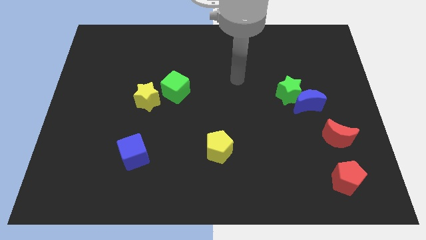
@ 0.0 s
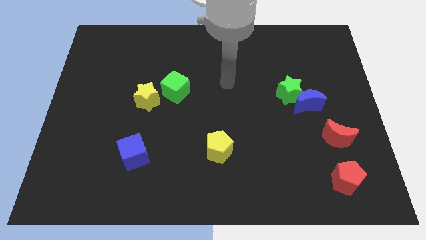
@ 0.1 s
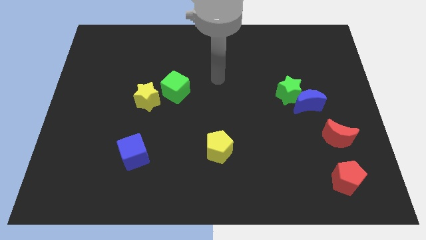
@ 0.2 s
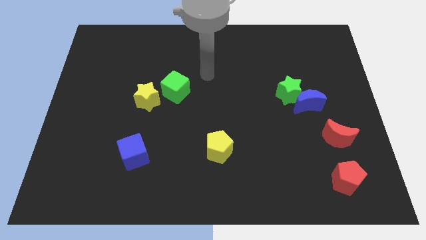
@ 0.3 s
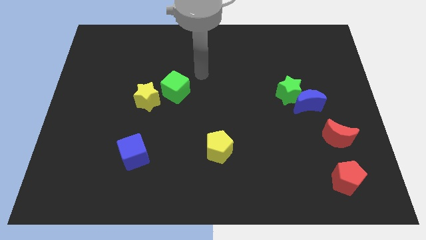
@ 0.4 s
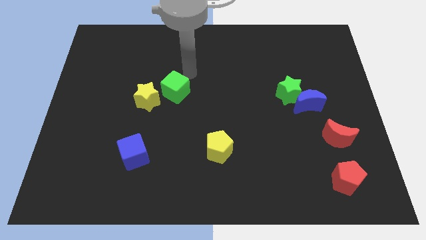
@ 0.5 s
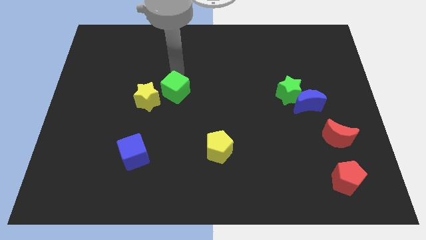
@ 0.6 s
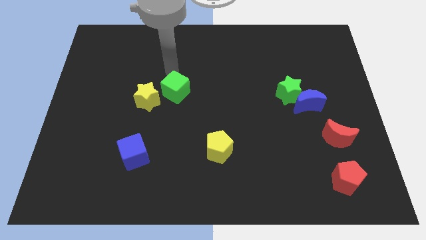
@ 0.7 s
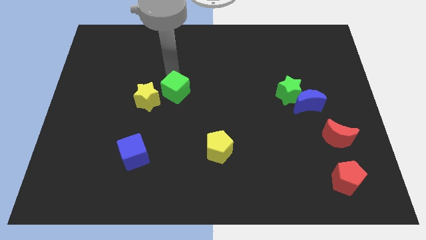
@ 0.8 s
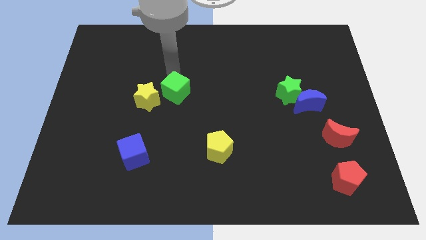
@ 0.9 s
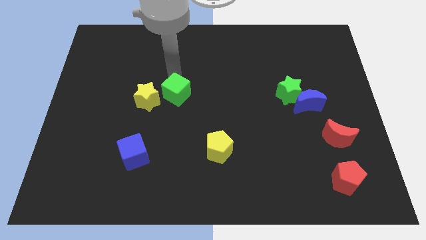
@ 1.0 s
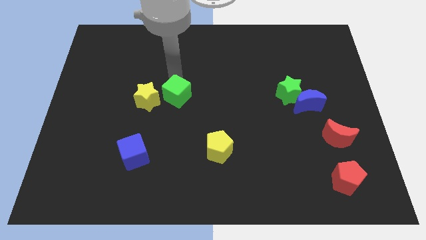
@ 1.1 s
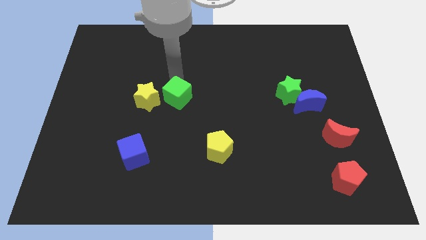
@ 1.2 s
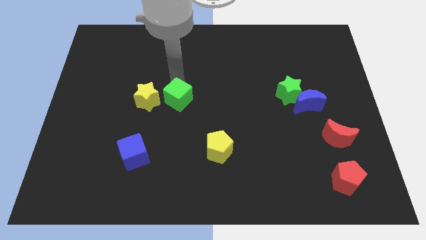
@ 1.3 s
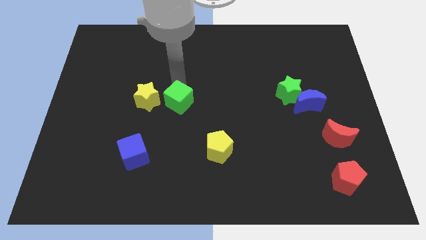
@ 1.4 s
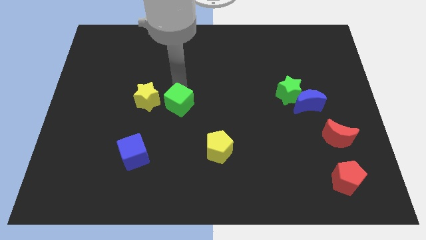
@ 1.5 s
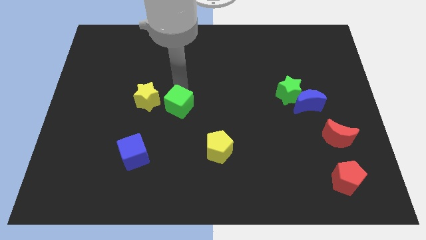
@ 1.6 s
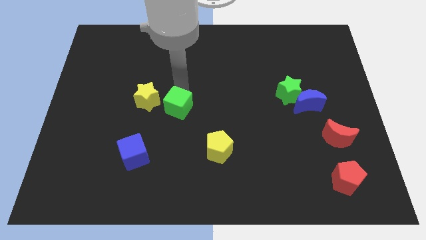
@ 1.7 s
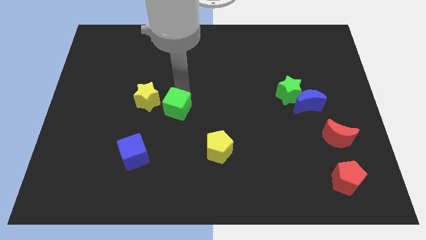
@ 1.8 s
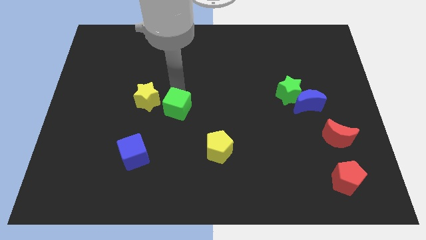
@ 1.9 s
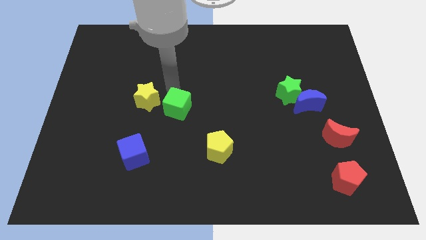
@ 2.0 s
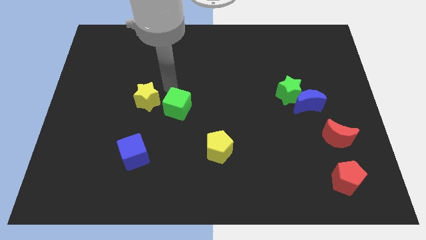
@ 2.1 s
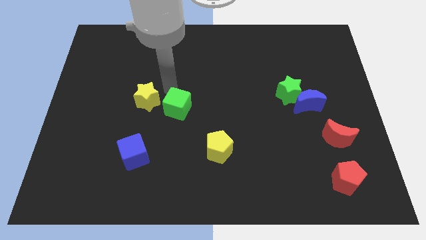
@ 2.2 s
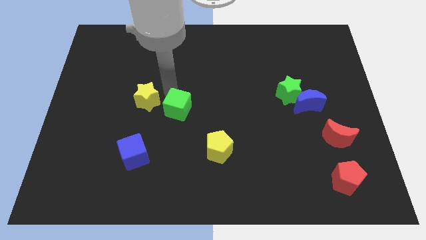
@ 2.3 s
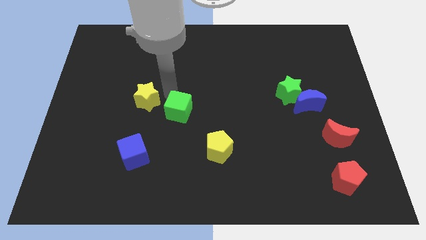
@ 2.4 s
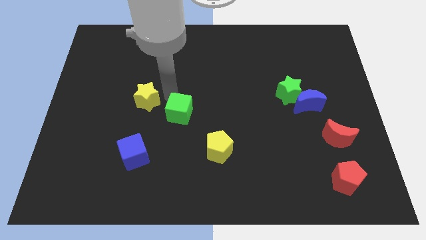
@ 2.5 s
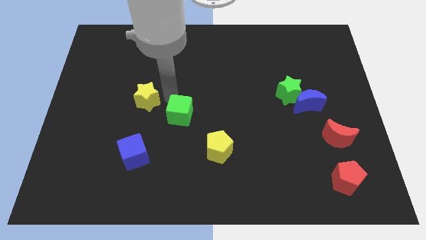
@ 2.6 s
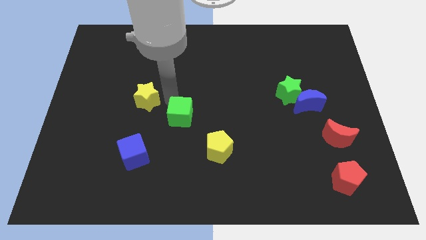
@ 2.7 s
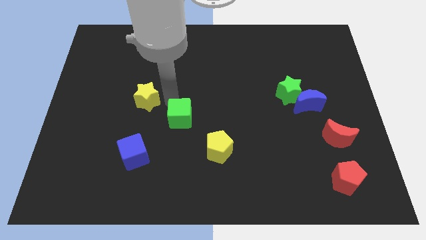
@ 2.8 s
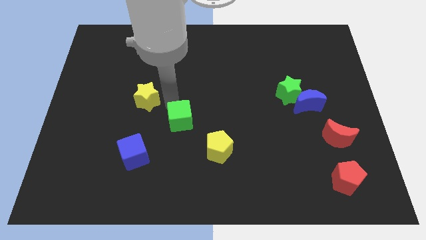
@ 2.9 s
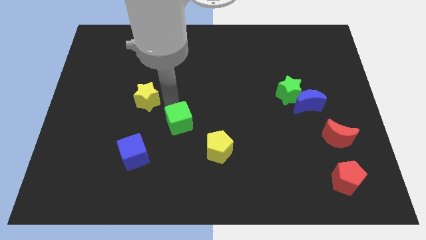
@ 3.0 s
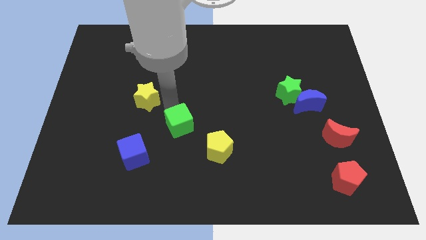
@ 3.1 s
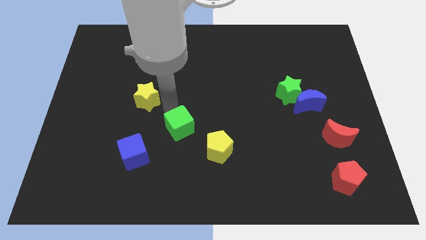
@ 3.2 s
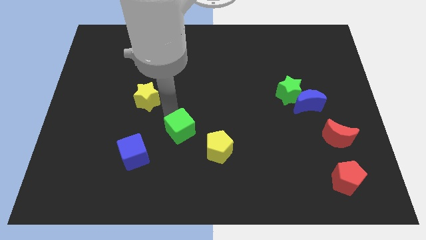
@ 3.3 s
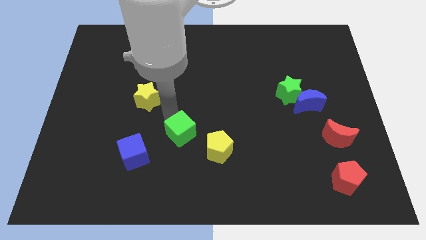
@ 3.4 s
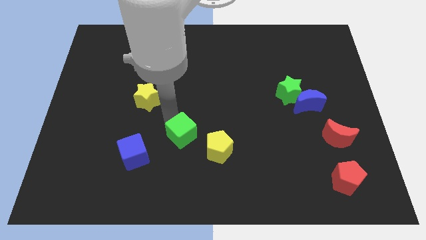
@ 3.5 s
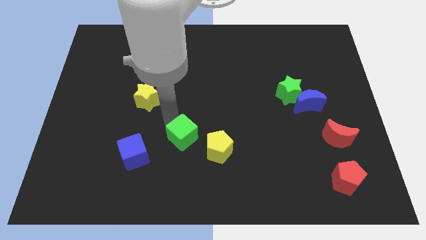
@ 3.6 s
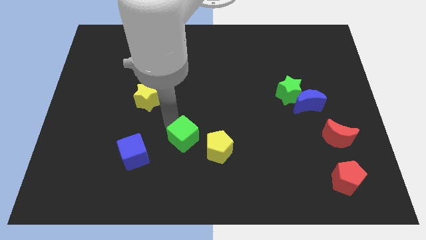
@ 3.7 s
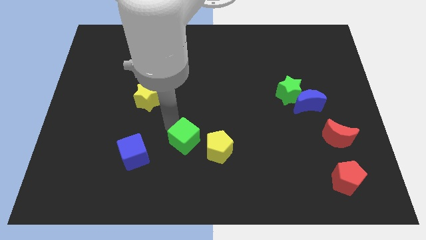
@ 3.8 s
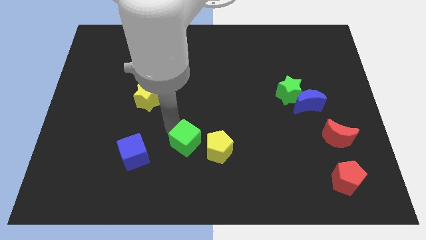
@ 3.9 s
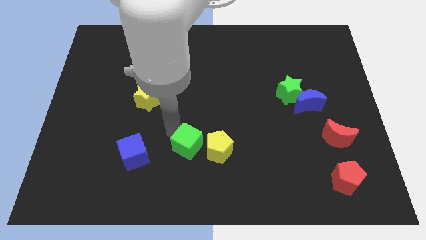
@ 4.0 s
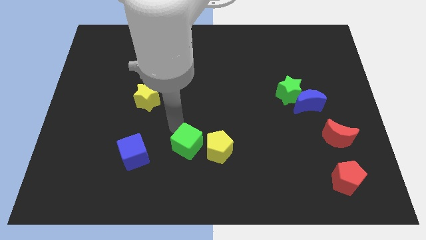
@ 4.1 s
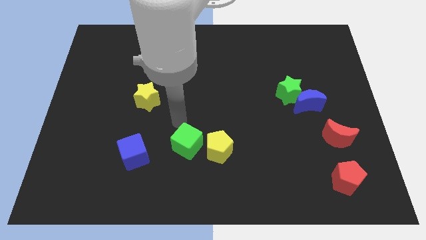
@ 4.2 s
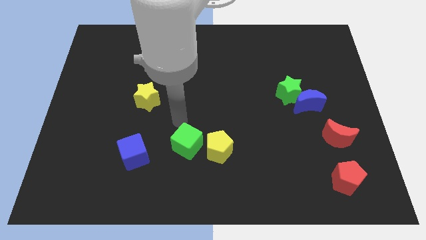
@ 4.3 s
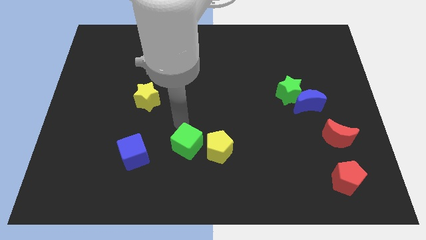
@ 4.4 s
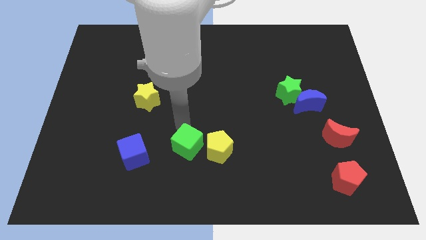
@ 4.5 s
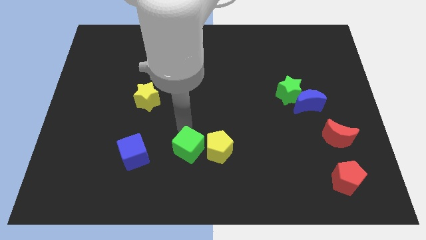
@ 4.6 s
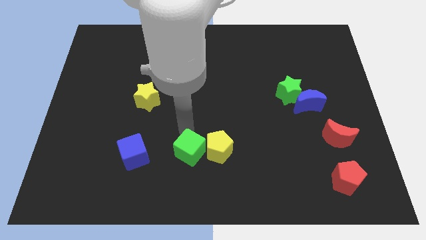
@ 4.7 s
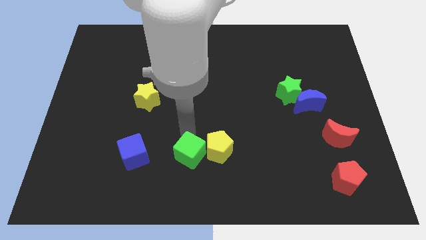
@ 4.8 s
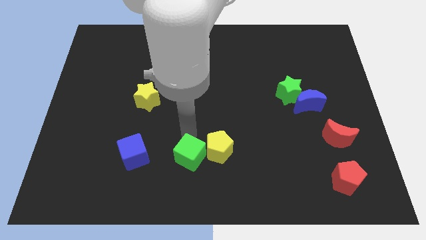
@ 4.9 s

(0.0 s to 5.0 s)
move the green cube to the bottom

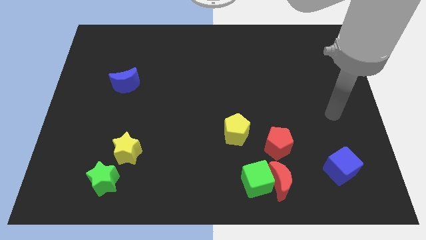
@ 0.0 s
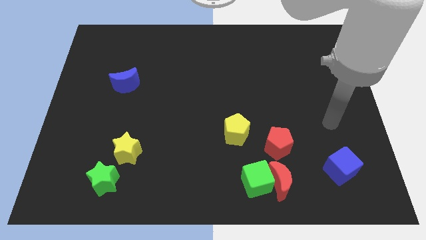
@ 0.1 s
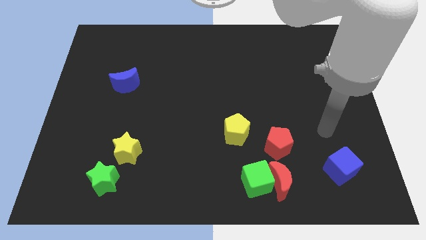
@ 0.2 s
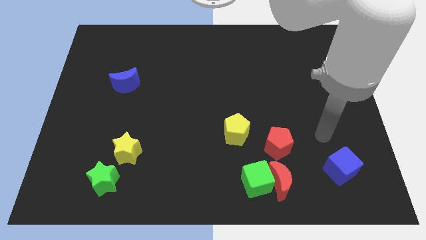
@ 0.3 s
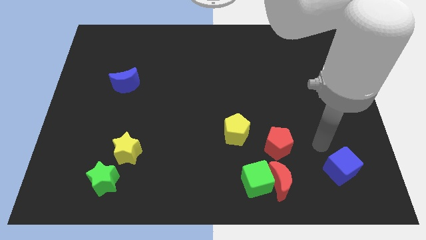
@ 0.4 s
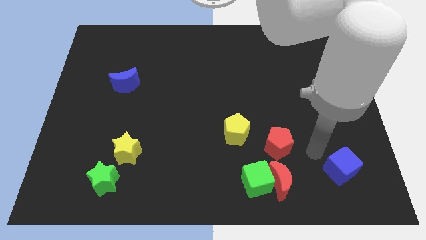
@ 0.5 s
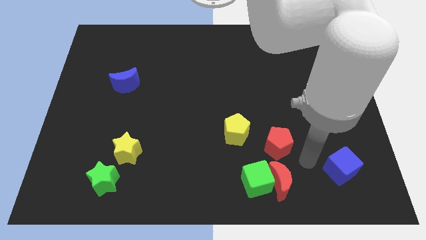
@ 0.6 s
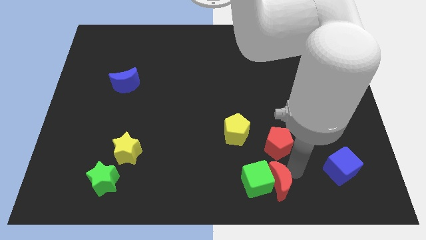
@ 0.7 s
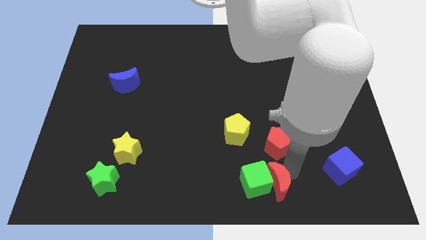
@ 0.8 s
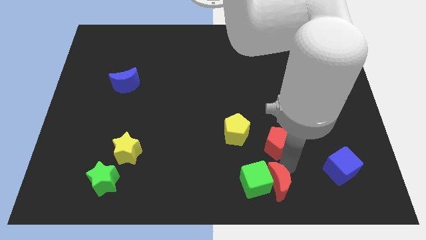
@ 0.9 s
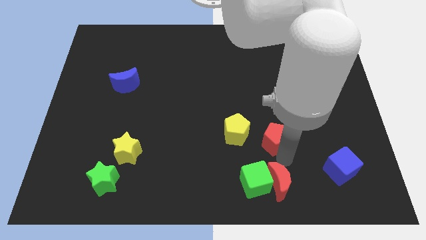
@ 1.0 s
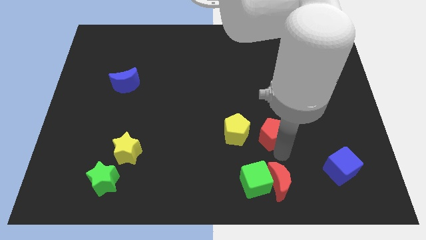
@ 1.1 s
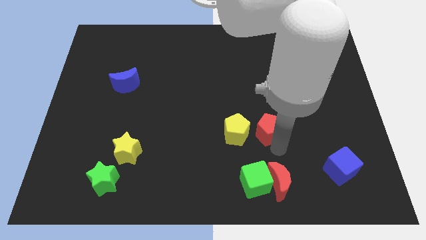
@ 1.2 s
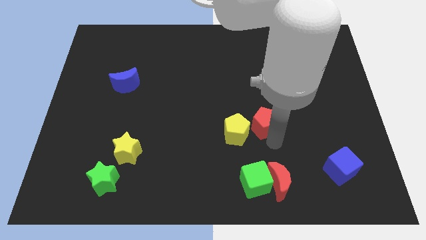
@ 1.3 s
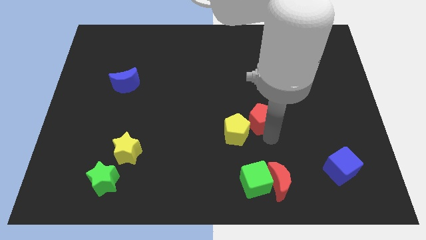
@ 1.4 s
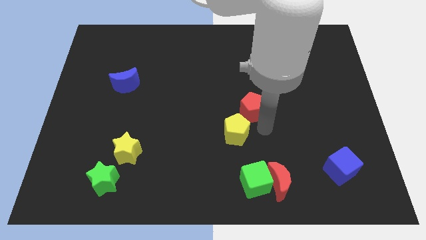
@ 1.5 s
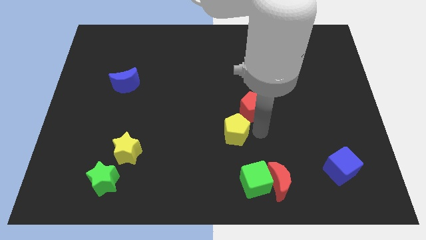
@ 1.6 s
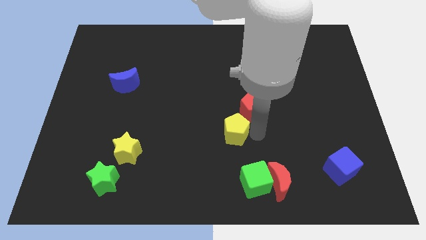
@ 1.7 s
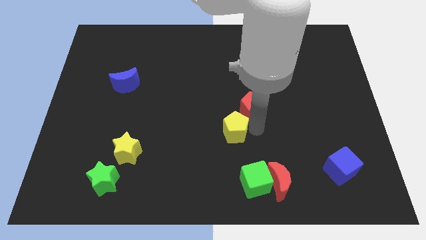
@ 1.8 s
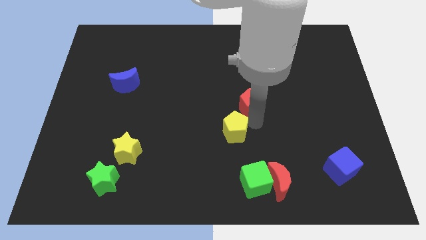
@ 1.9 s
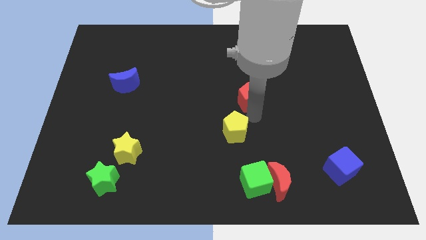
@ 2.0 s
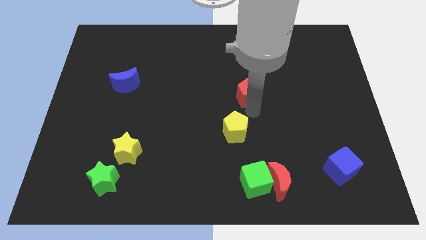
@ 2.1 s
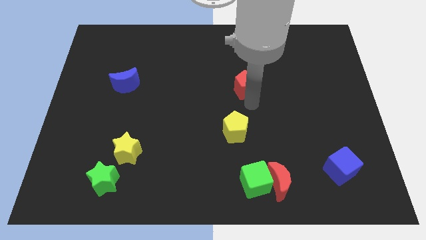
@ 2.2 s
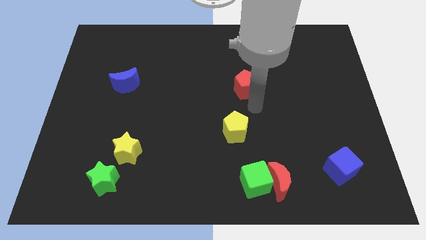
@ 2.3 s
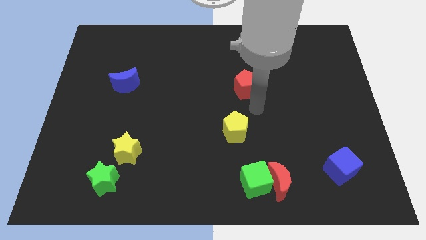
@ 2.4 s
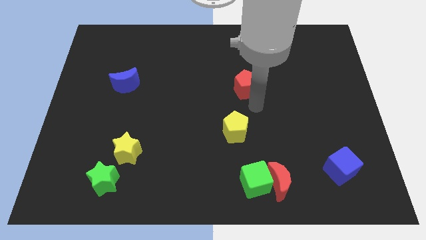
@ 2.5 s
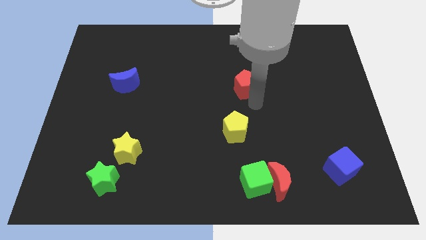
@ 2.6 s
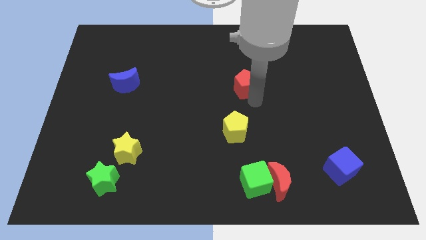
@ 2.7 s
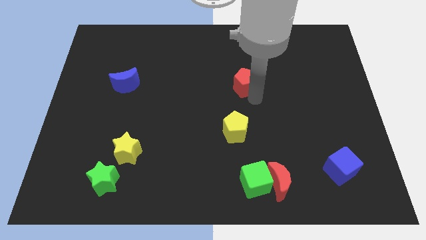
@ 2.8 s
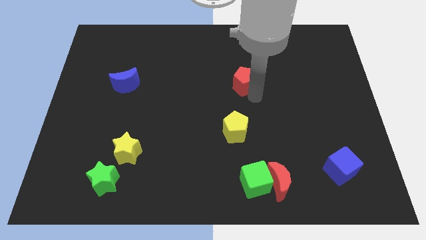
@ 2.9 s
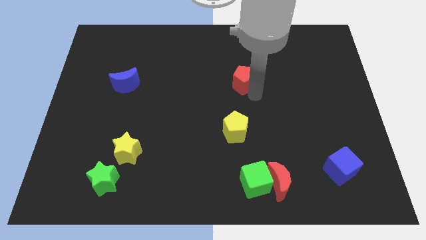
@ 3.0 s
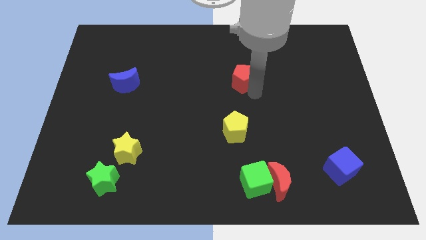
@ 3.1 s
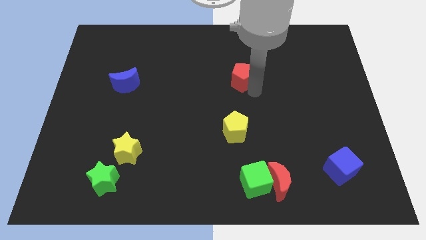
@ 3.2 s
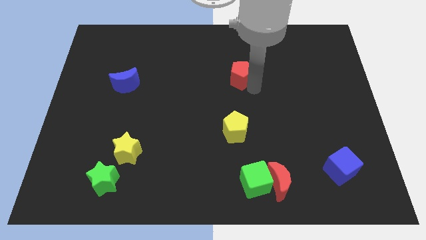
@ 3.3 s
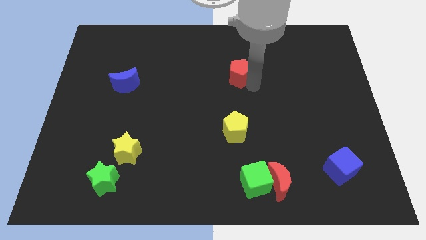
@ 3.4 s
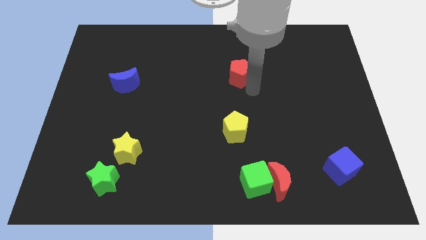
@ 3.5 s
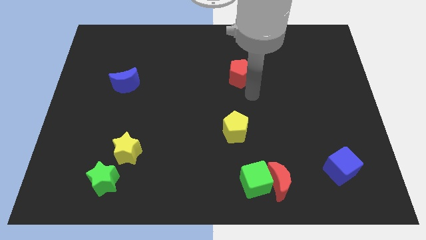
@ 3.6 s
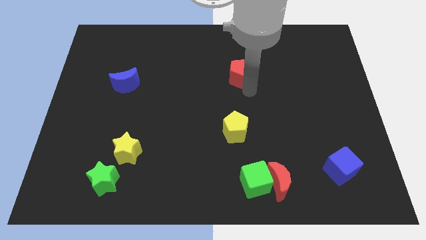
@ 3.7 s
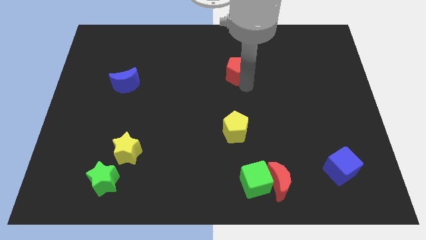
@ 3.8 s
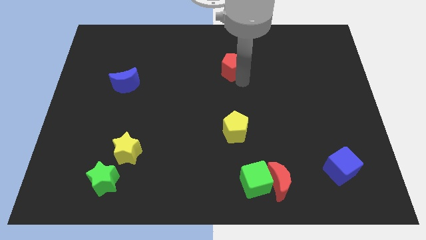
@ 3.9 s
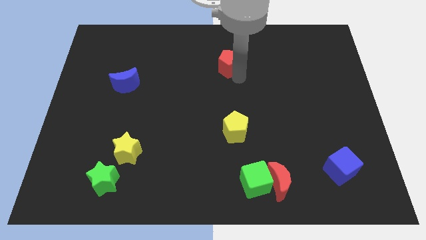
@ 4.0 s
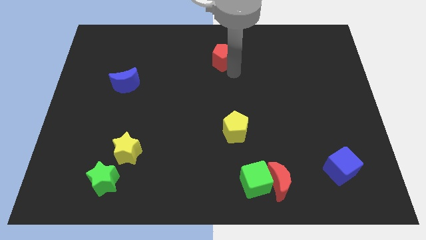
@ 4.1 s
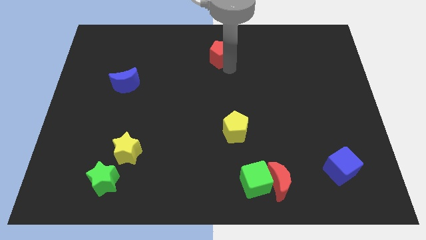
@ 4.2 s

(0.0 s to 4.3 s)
put the red pentagon to the top side
